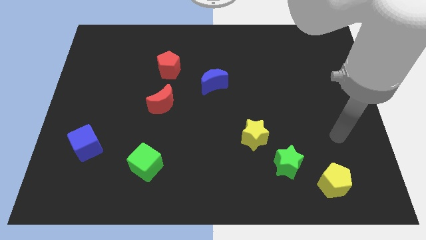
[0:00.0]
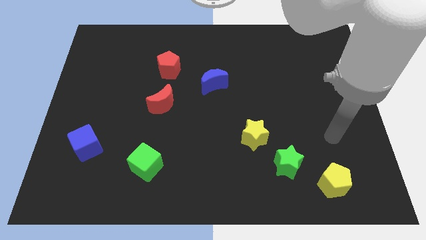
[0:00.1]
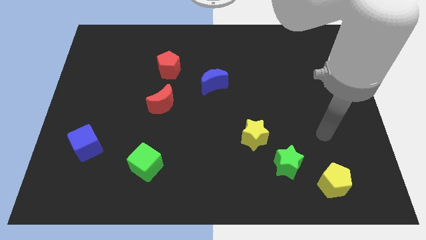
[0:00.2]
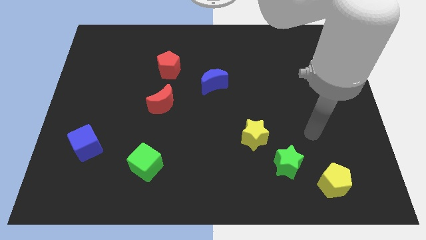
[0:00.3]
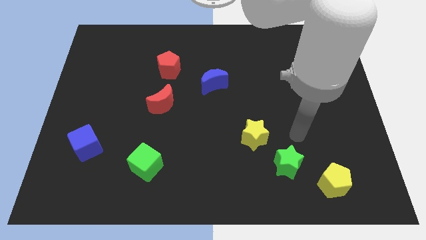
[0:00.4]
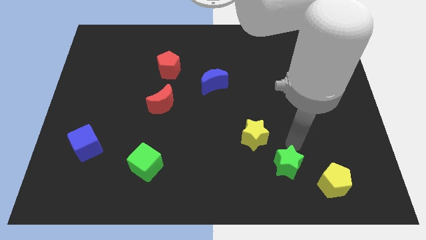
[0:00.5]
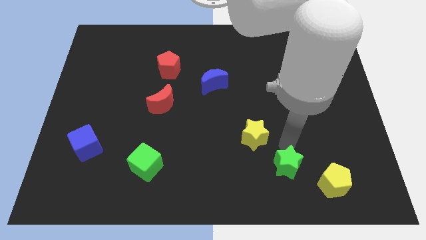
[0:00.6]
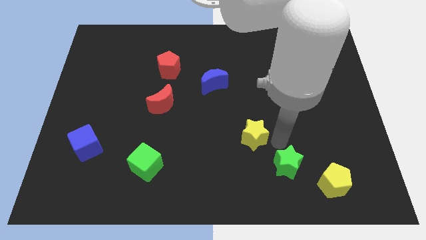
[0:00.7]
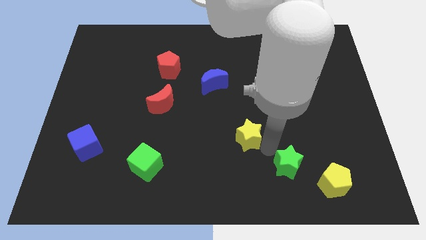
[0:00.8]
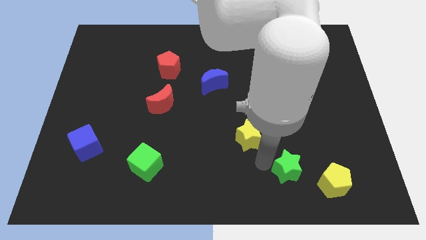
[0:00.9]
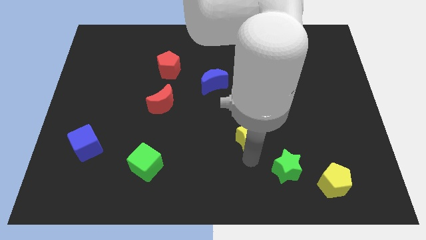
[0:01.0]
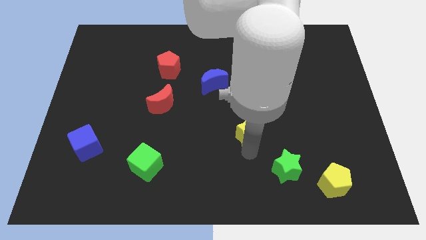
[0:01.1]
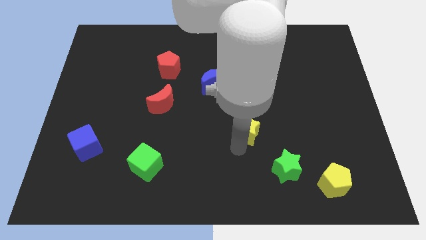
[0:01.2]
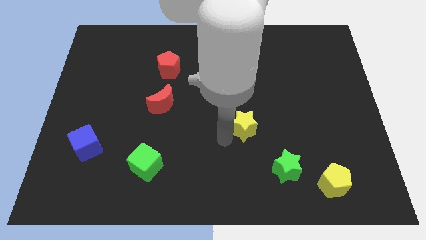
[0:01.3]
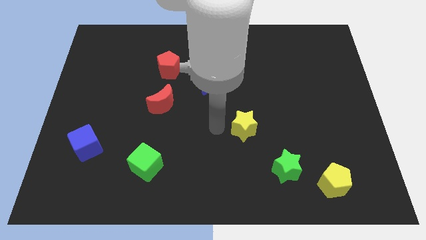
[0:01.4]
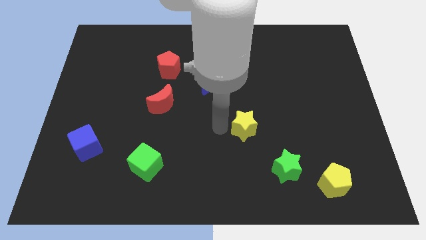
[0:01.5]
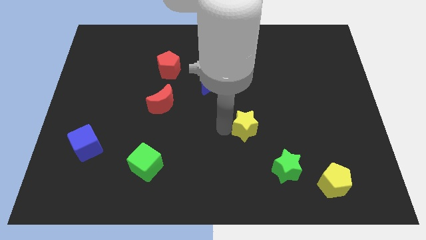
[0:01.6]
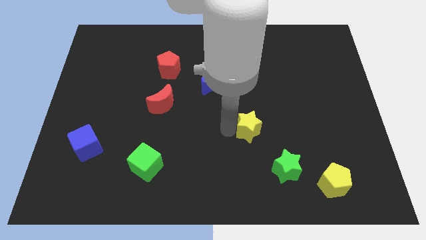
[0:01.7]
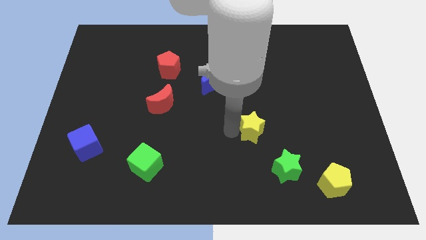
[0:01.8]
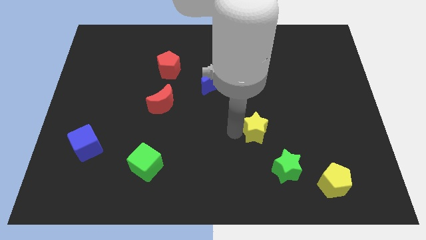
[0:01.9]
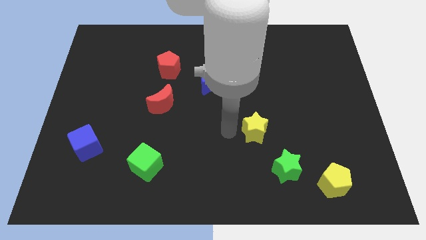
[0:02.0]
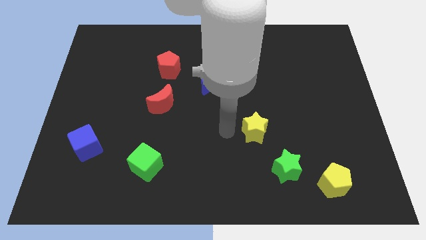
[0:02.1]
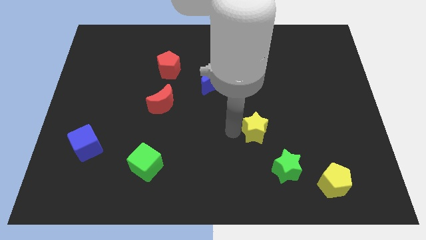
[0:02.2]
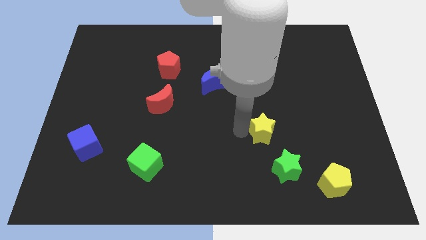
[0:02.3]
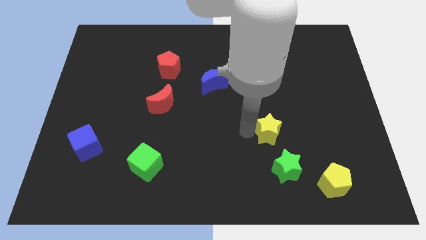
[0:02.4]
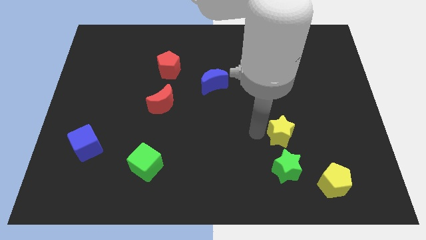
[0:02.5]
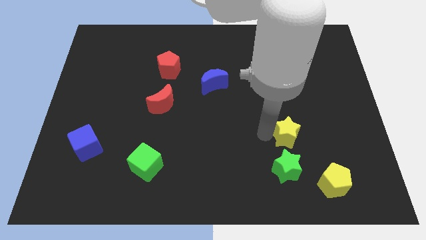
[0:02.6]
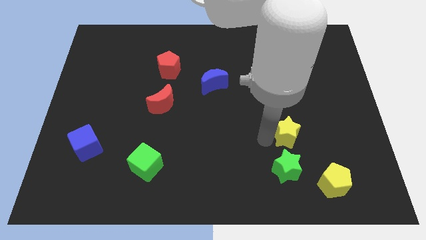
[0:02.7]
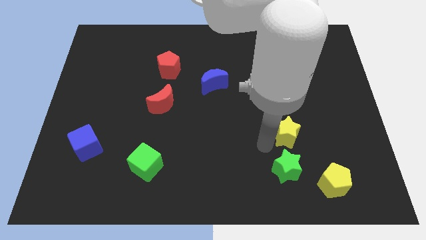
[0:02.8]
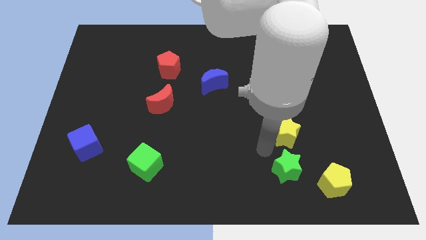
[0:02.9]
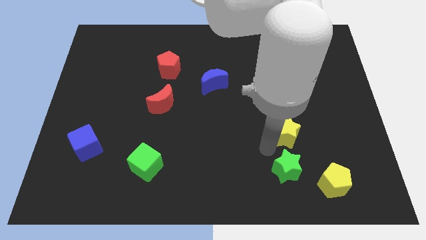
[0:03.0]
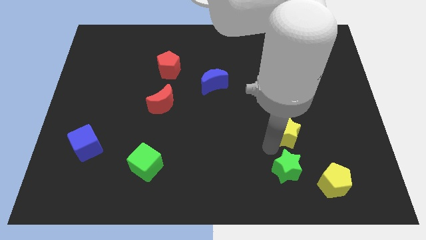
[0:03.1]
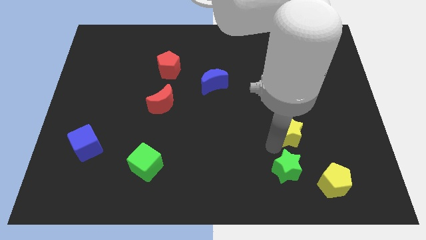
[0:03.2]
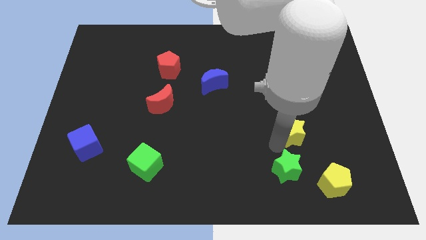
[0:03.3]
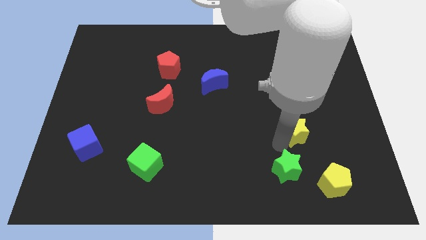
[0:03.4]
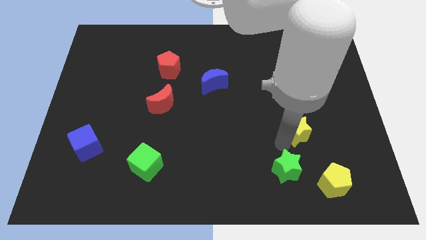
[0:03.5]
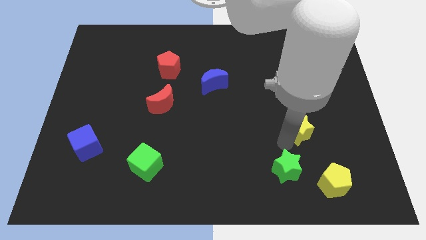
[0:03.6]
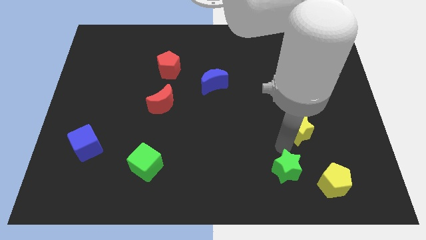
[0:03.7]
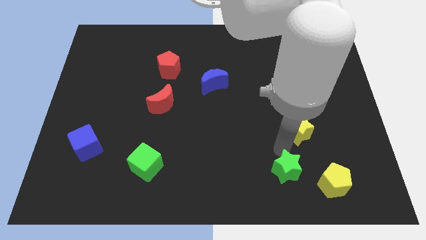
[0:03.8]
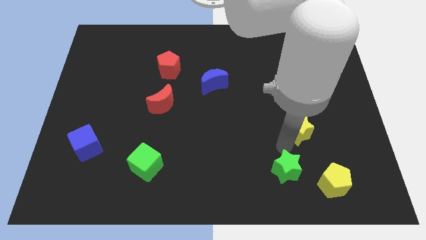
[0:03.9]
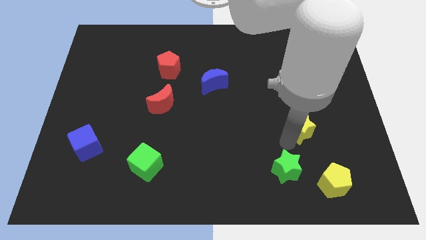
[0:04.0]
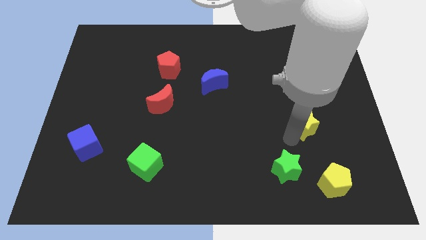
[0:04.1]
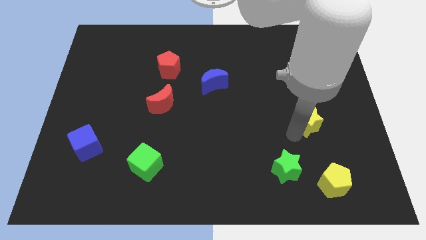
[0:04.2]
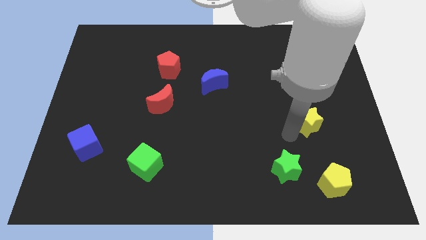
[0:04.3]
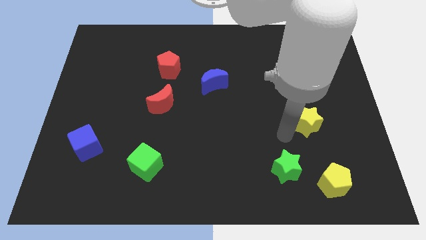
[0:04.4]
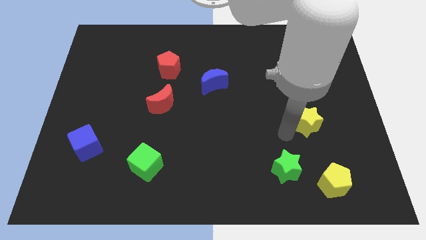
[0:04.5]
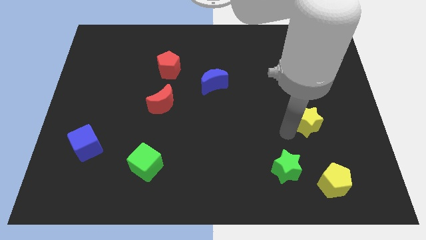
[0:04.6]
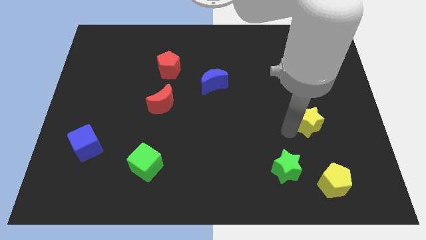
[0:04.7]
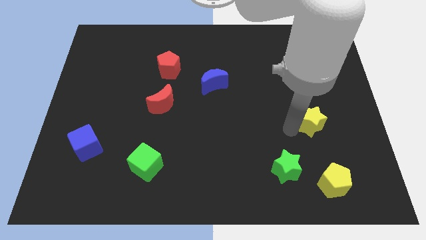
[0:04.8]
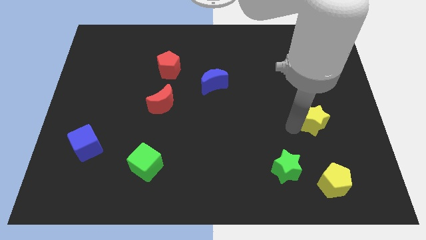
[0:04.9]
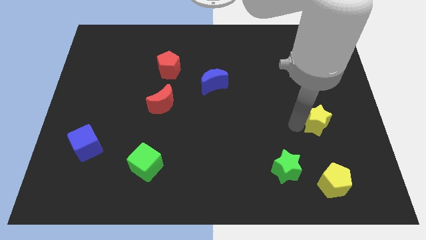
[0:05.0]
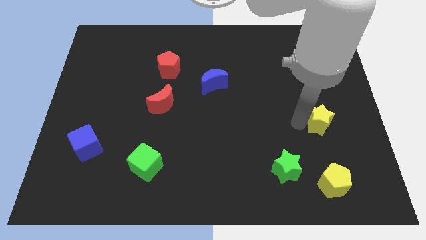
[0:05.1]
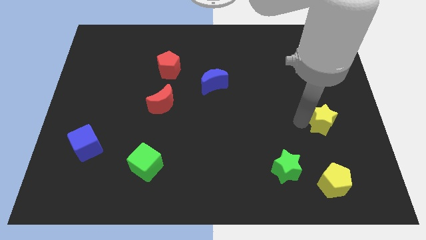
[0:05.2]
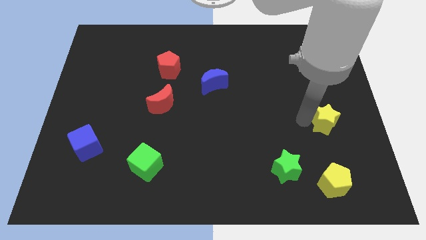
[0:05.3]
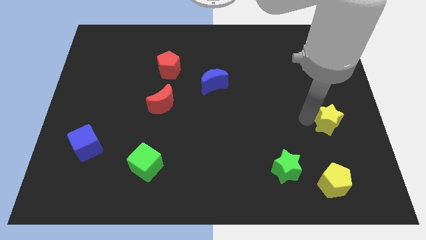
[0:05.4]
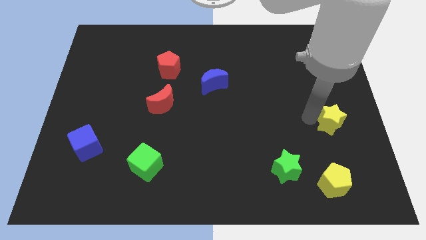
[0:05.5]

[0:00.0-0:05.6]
put the yellow star to the right side

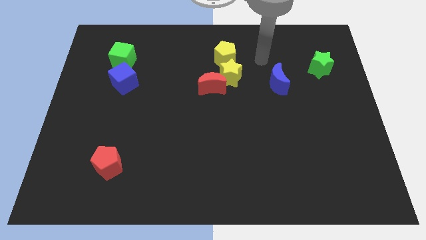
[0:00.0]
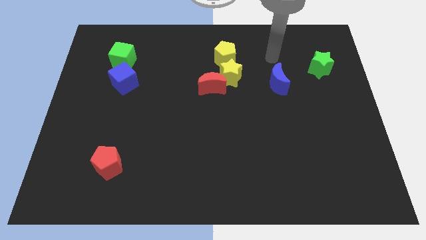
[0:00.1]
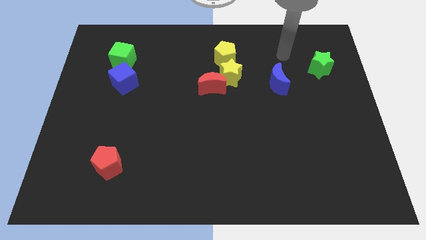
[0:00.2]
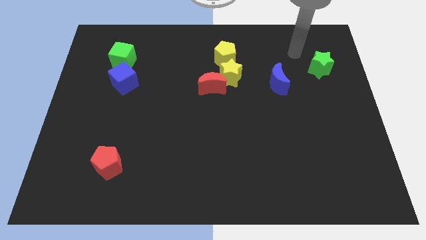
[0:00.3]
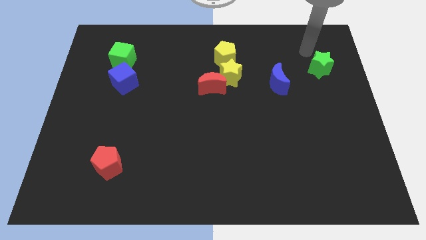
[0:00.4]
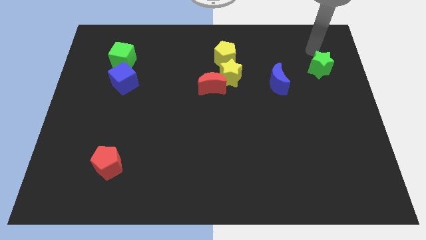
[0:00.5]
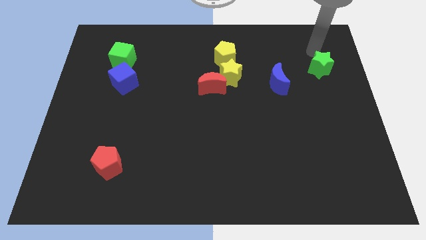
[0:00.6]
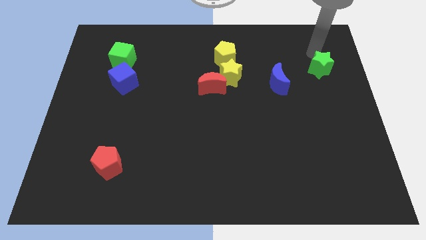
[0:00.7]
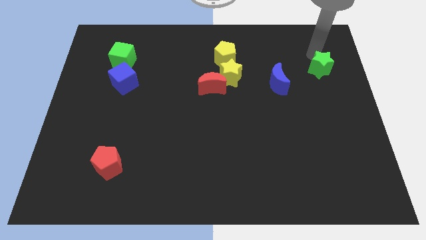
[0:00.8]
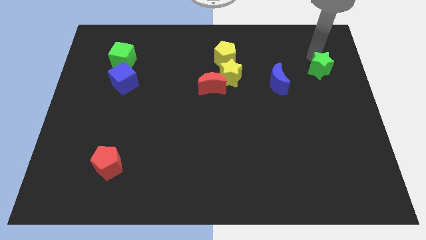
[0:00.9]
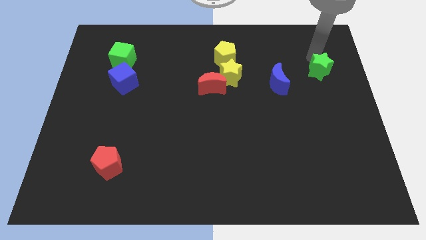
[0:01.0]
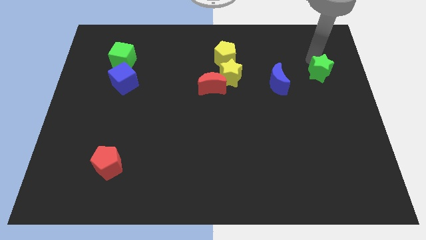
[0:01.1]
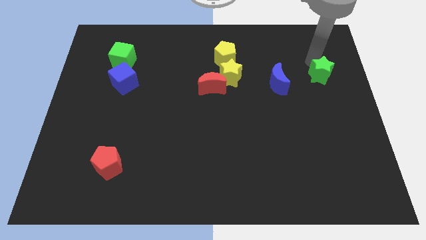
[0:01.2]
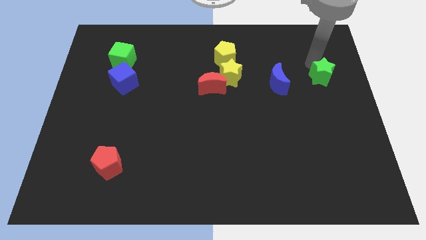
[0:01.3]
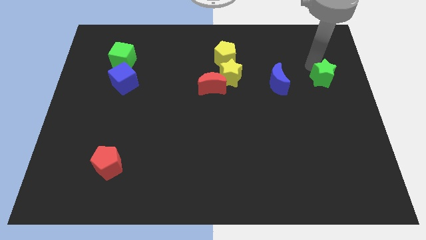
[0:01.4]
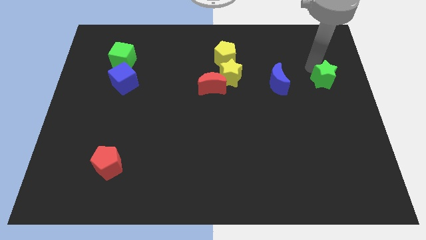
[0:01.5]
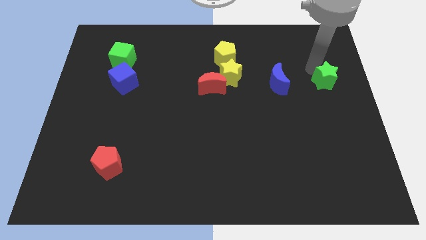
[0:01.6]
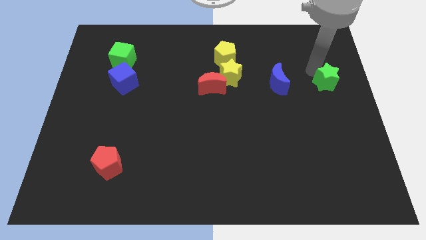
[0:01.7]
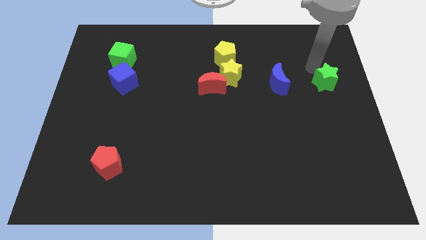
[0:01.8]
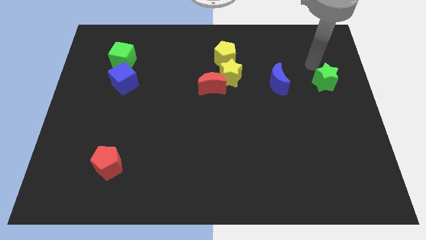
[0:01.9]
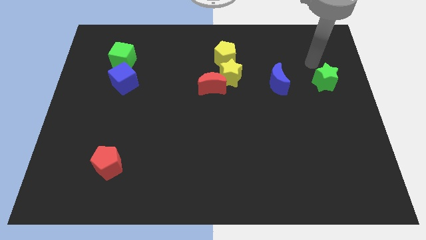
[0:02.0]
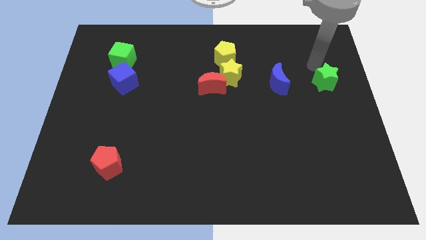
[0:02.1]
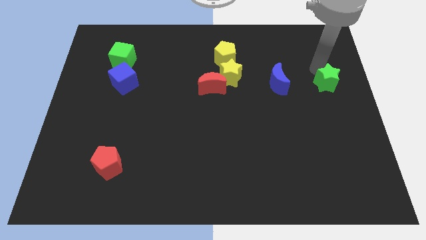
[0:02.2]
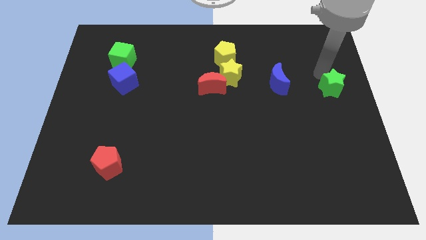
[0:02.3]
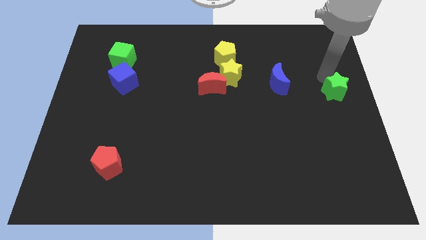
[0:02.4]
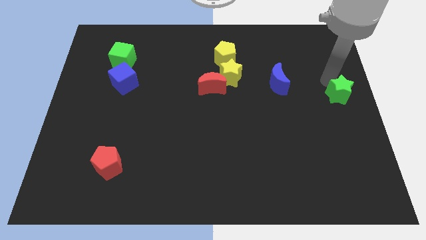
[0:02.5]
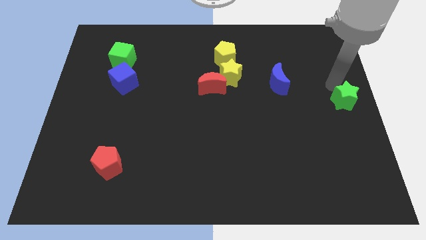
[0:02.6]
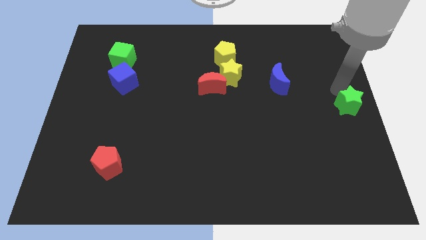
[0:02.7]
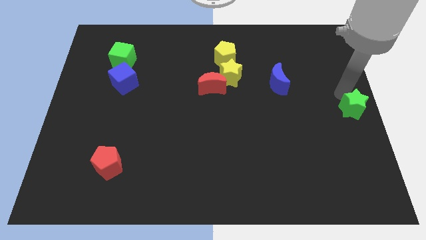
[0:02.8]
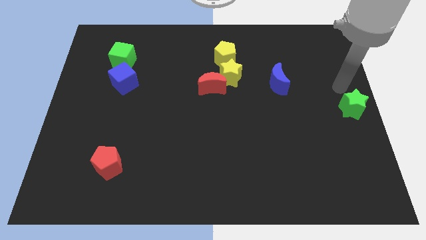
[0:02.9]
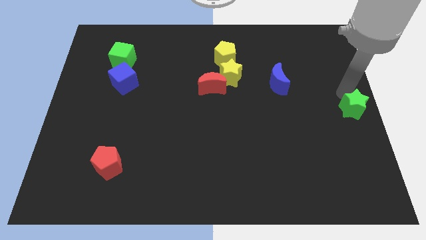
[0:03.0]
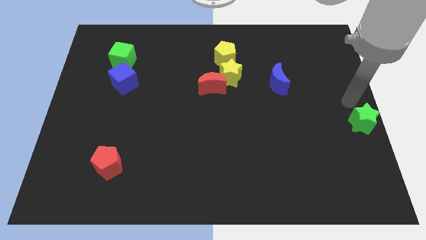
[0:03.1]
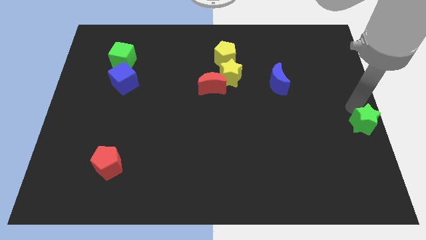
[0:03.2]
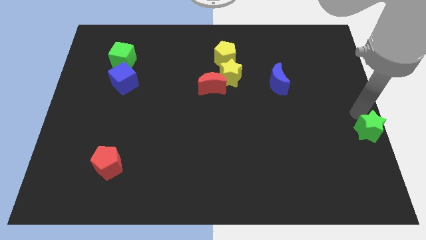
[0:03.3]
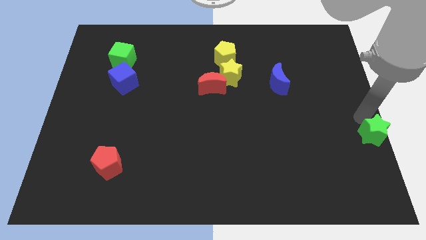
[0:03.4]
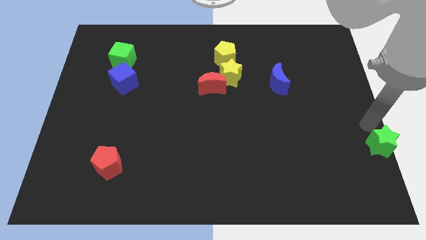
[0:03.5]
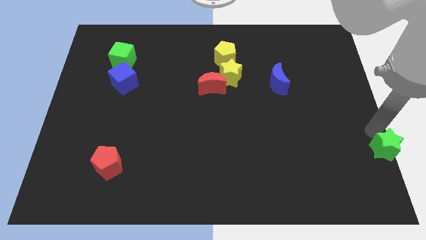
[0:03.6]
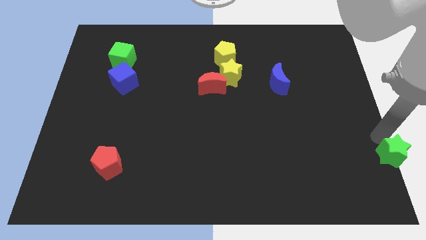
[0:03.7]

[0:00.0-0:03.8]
slide the green star to the lower right corner
